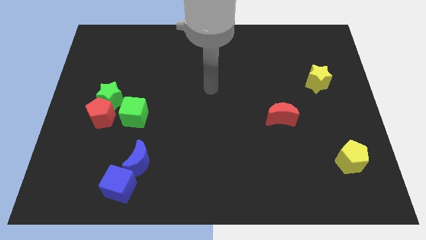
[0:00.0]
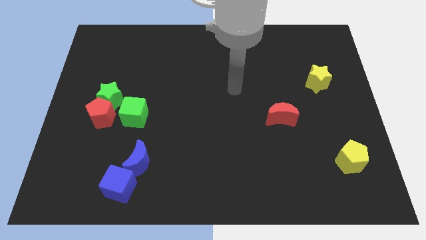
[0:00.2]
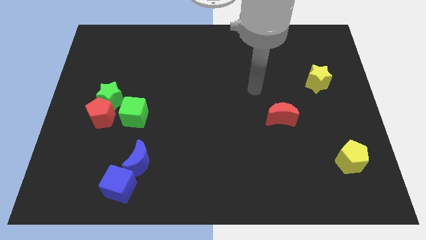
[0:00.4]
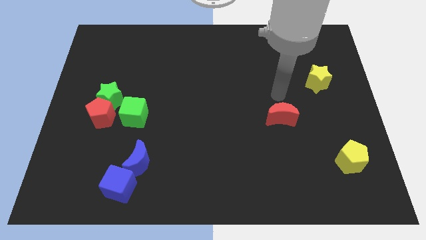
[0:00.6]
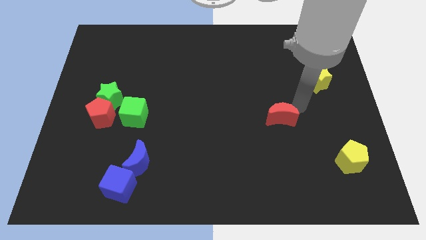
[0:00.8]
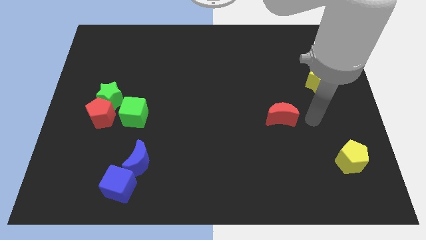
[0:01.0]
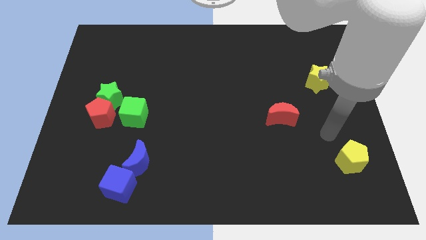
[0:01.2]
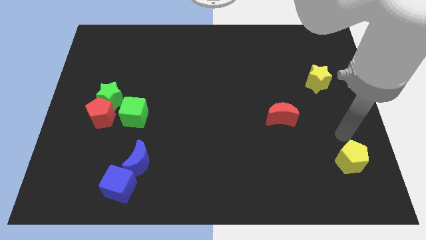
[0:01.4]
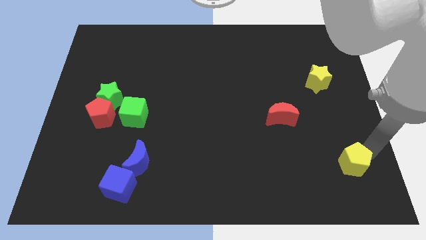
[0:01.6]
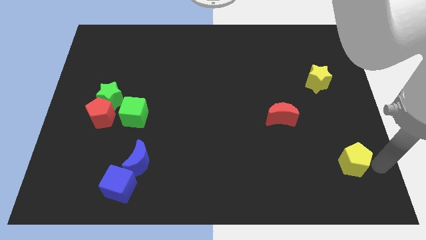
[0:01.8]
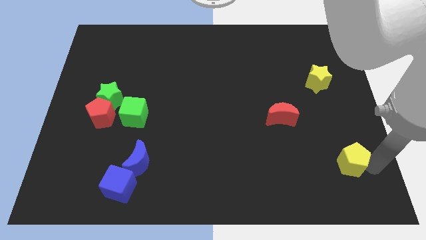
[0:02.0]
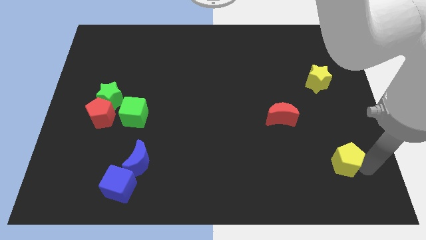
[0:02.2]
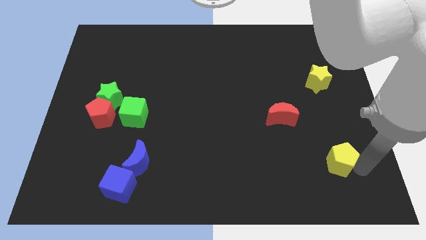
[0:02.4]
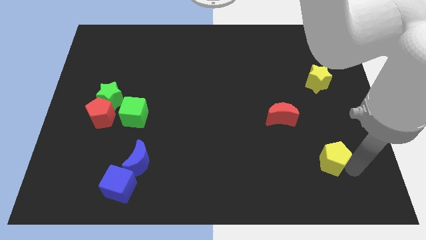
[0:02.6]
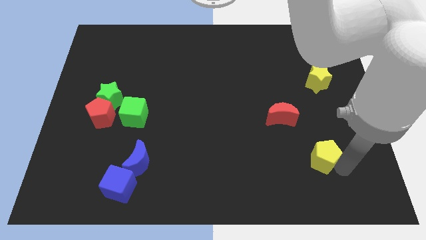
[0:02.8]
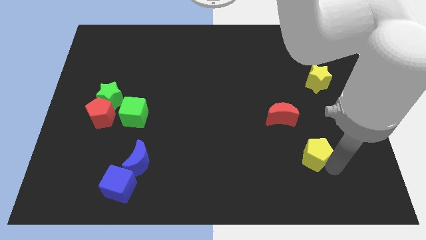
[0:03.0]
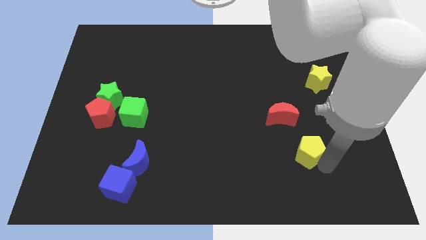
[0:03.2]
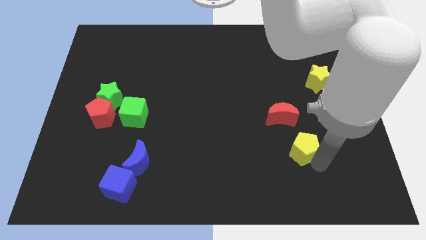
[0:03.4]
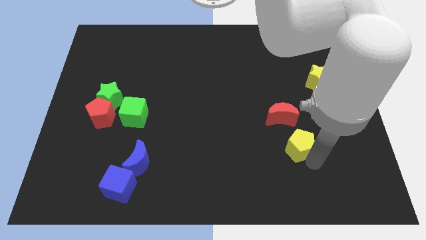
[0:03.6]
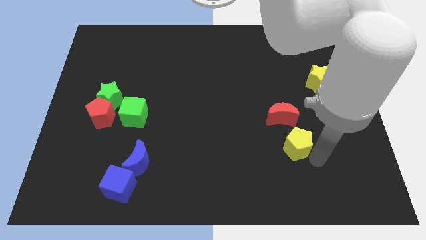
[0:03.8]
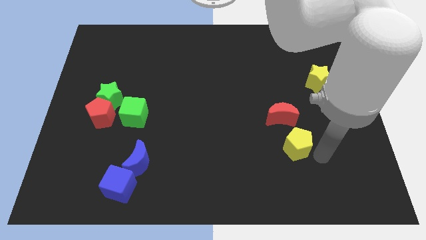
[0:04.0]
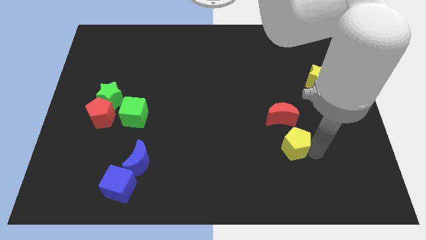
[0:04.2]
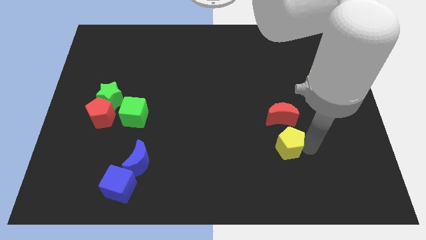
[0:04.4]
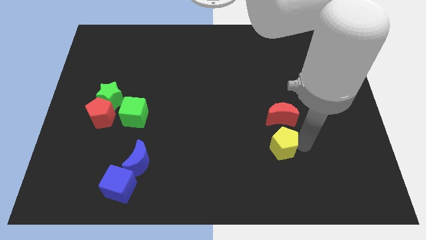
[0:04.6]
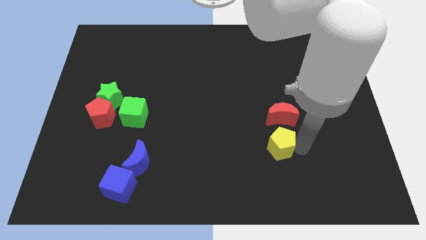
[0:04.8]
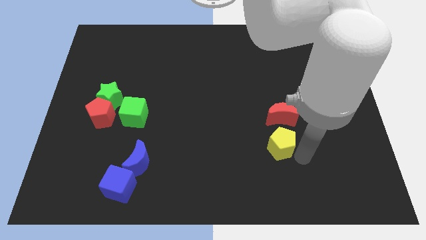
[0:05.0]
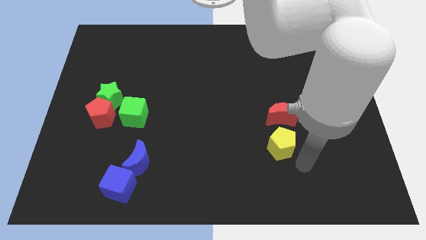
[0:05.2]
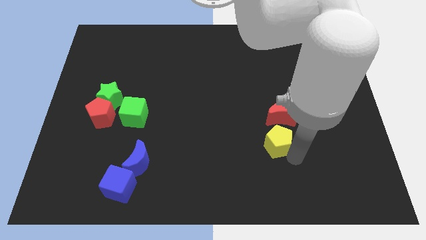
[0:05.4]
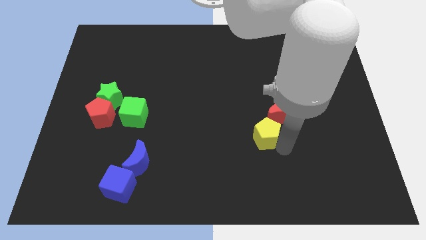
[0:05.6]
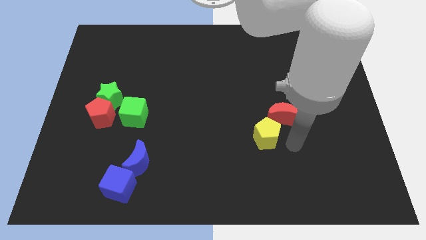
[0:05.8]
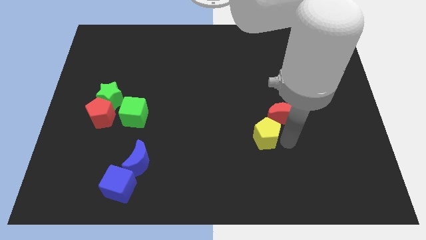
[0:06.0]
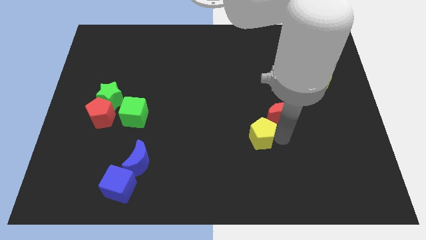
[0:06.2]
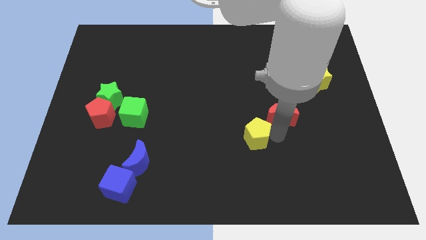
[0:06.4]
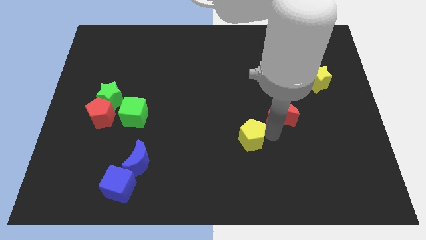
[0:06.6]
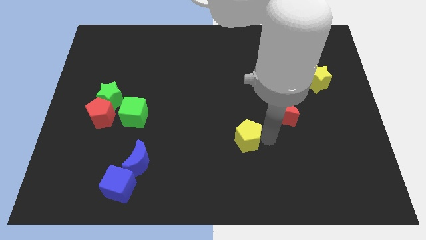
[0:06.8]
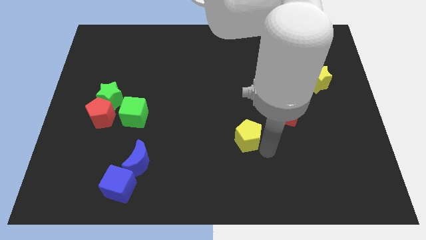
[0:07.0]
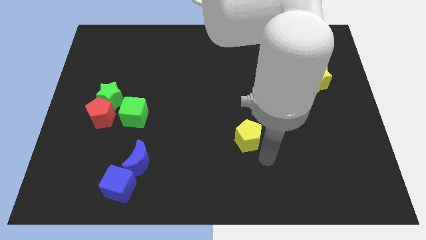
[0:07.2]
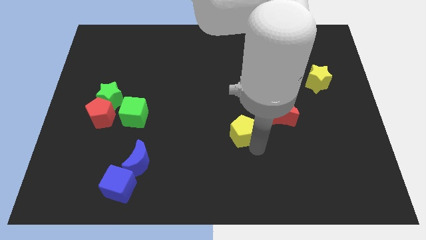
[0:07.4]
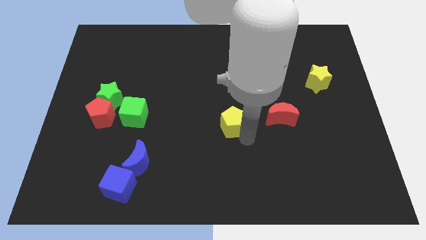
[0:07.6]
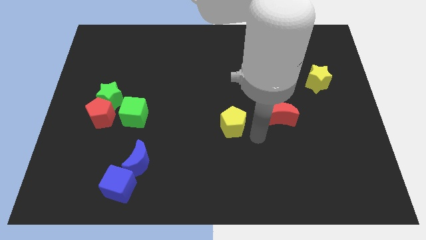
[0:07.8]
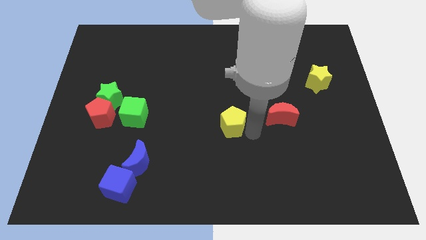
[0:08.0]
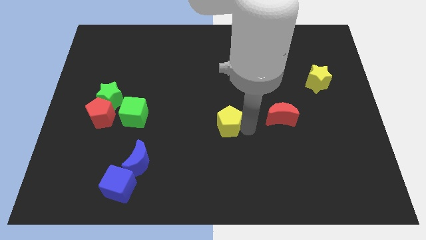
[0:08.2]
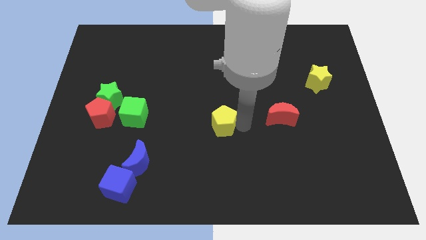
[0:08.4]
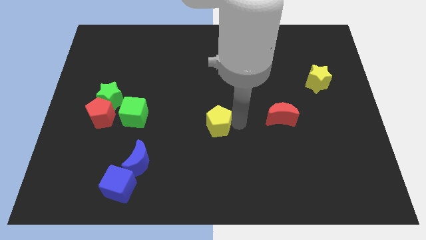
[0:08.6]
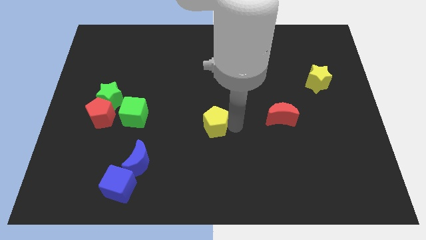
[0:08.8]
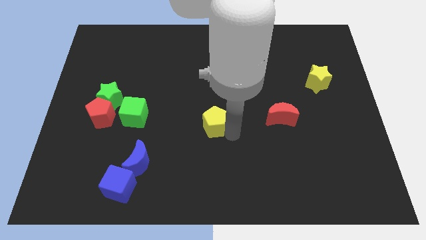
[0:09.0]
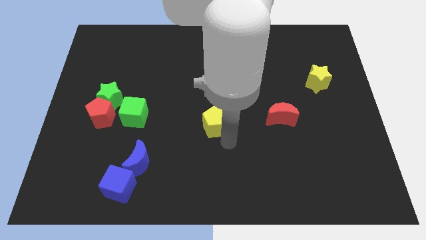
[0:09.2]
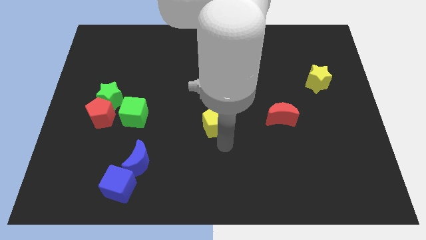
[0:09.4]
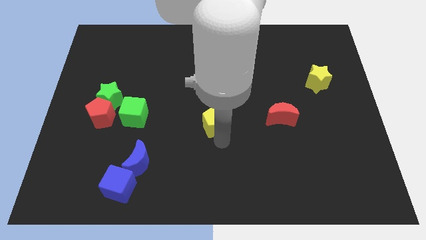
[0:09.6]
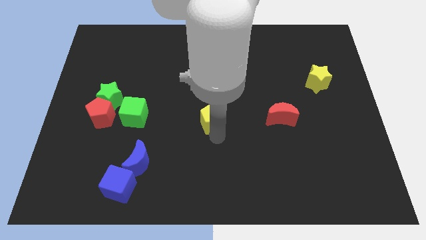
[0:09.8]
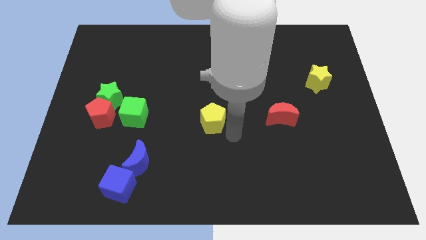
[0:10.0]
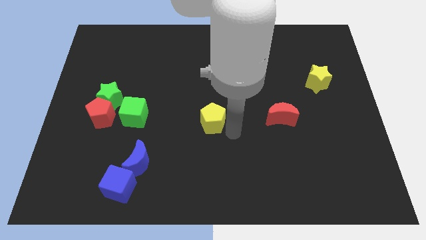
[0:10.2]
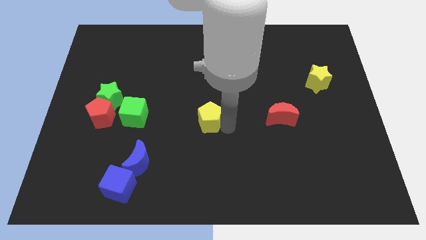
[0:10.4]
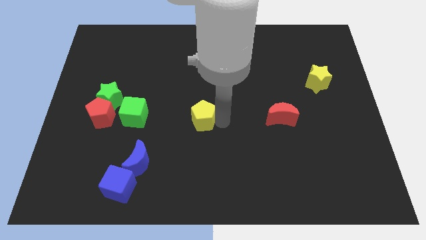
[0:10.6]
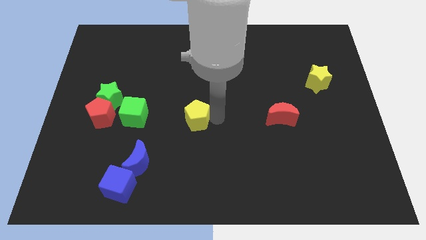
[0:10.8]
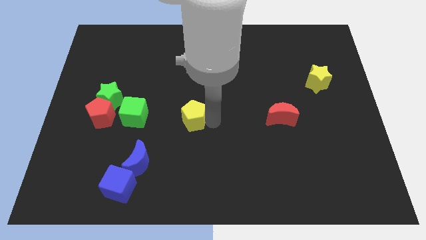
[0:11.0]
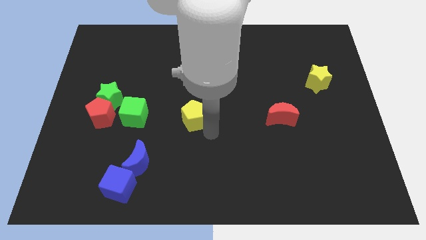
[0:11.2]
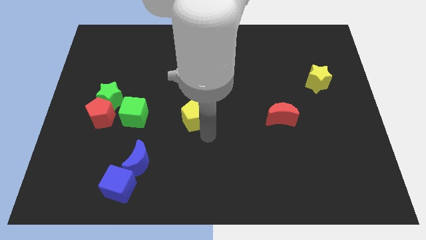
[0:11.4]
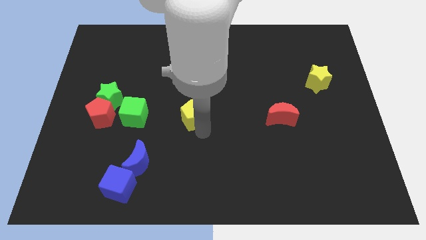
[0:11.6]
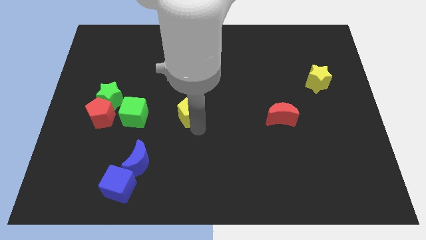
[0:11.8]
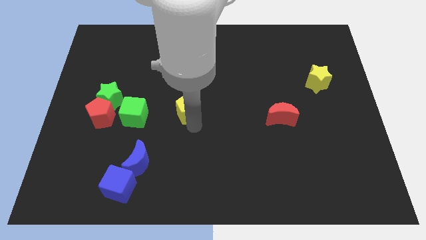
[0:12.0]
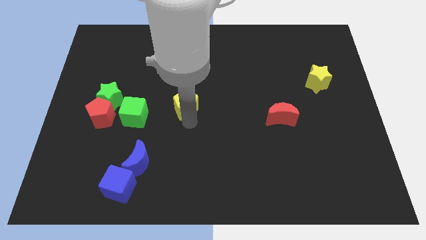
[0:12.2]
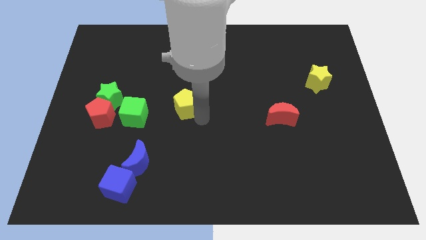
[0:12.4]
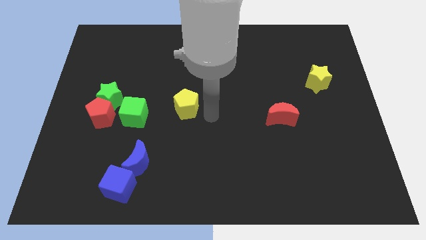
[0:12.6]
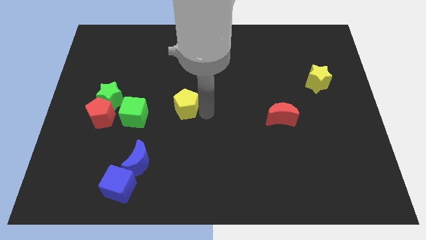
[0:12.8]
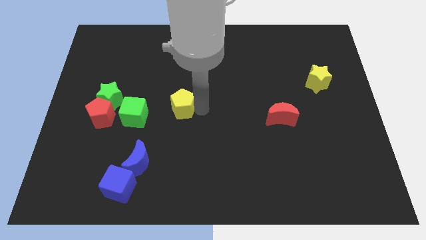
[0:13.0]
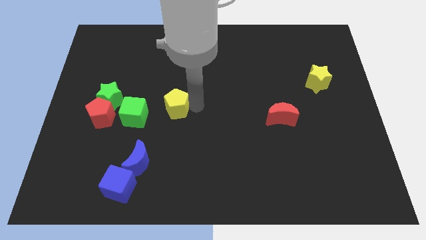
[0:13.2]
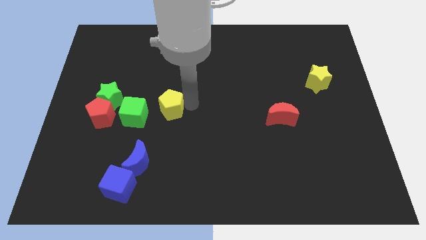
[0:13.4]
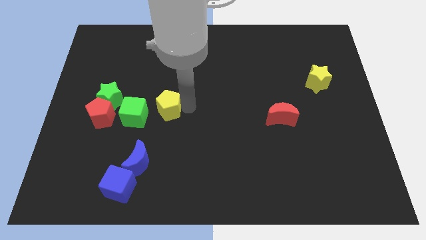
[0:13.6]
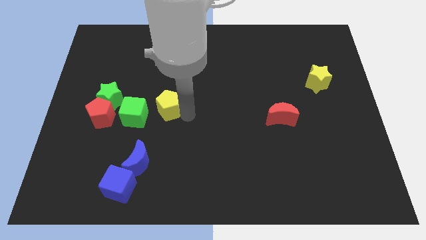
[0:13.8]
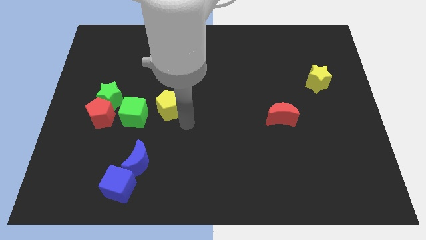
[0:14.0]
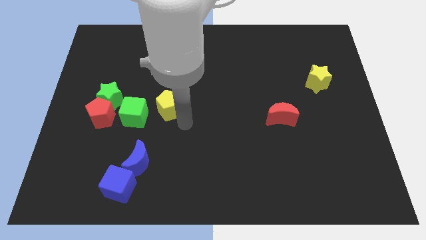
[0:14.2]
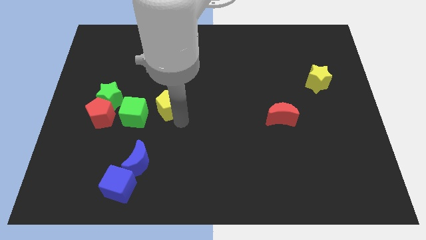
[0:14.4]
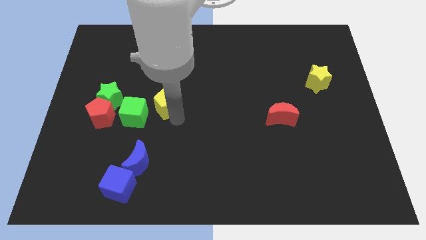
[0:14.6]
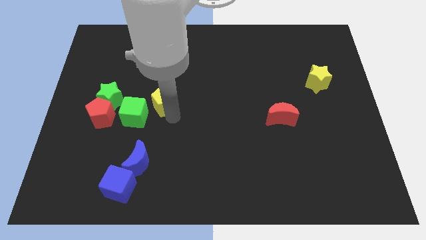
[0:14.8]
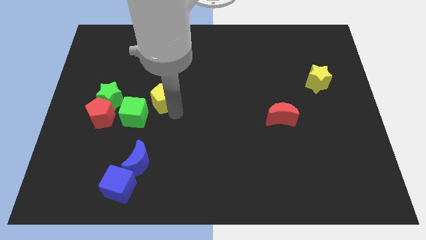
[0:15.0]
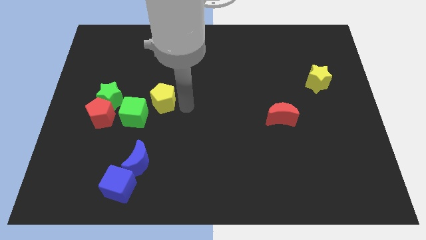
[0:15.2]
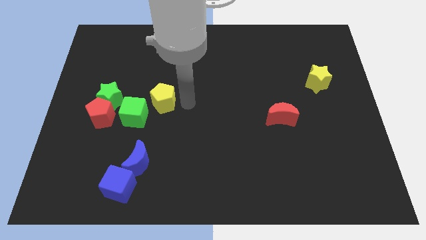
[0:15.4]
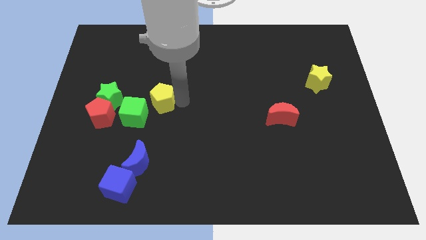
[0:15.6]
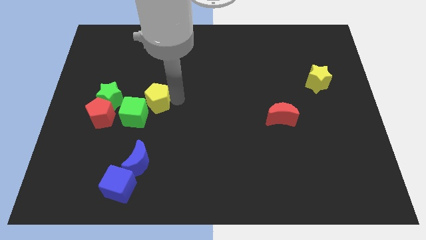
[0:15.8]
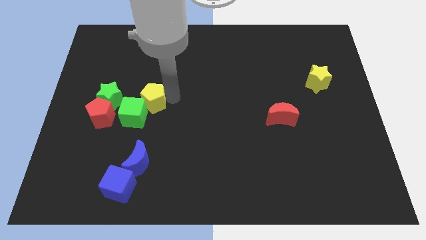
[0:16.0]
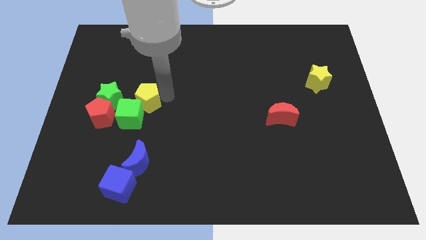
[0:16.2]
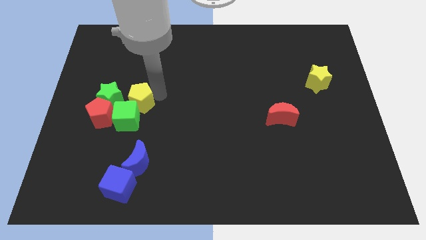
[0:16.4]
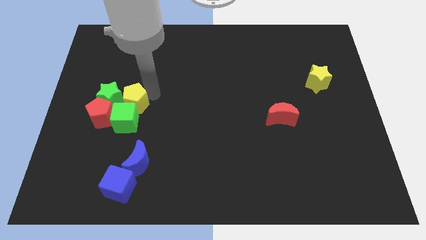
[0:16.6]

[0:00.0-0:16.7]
move the yellow pentagon next to the green star
